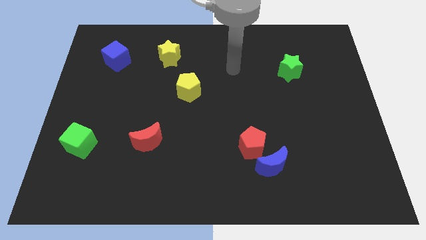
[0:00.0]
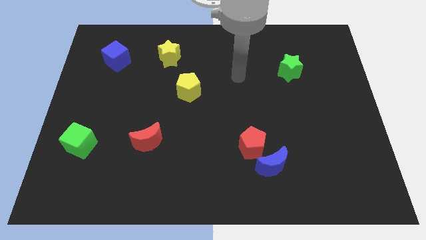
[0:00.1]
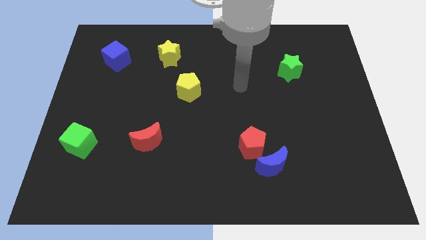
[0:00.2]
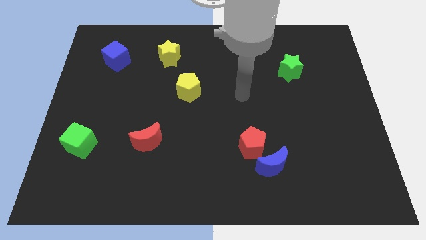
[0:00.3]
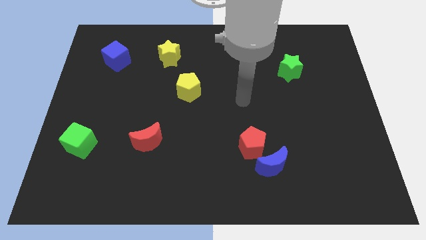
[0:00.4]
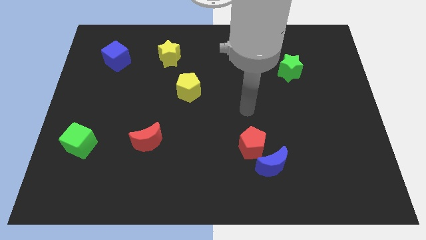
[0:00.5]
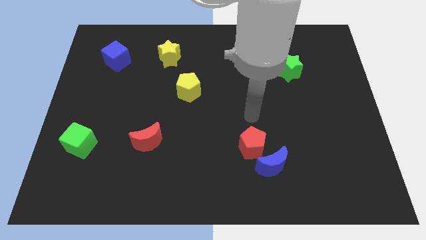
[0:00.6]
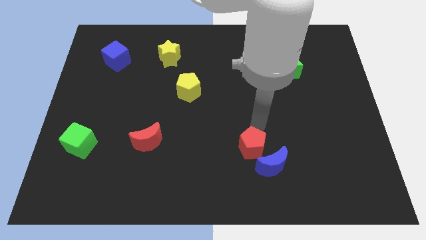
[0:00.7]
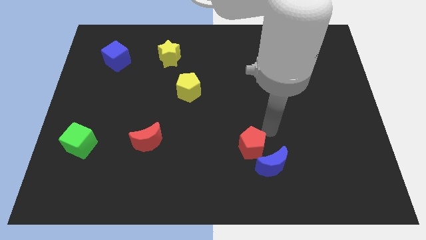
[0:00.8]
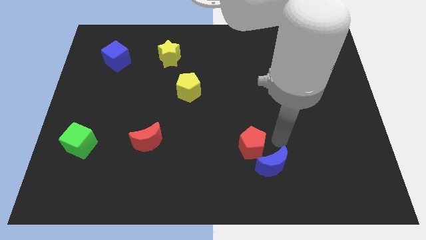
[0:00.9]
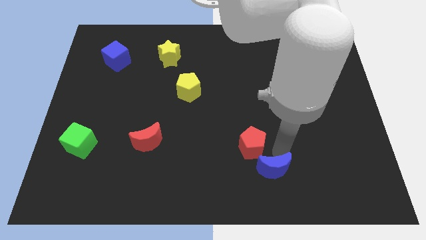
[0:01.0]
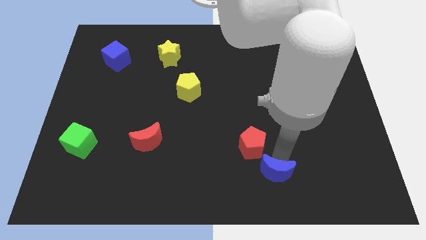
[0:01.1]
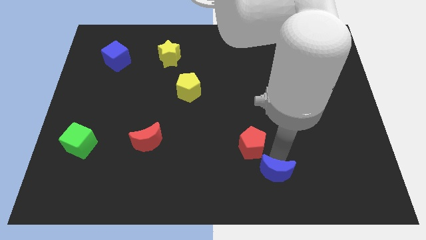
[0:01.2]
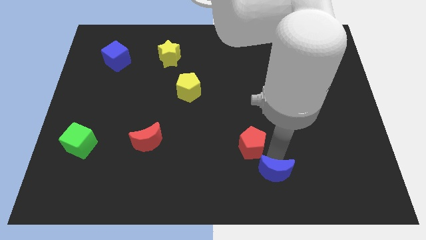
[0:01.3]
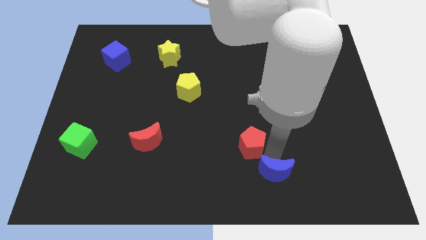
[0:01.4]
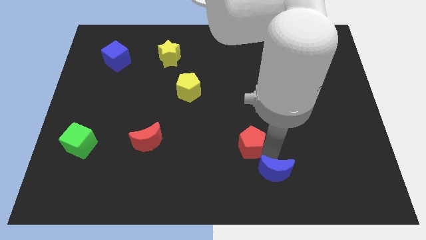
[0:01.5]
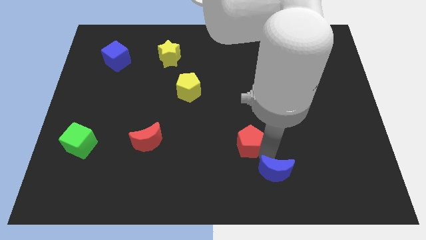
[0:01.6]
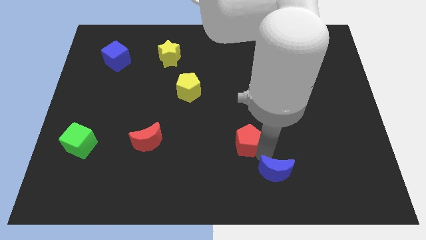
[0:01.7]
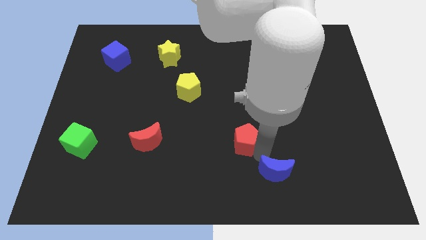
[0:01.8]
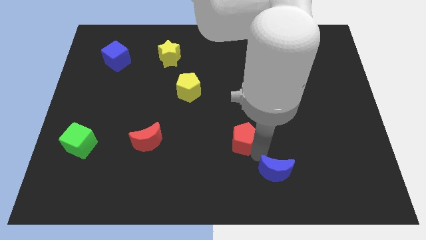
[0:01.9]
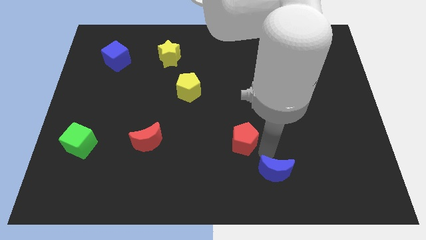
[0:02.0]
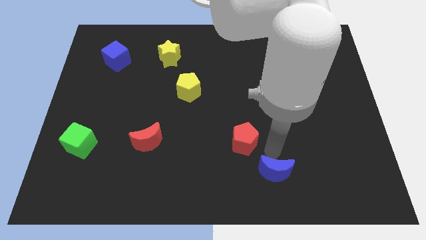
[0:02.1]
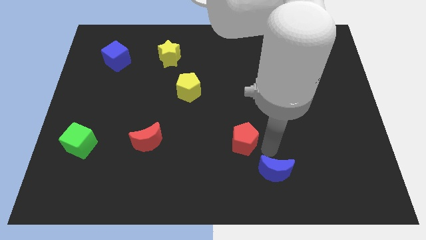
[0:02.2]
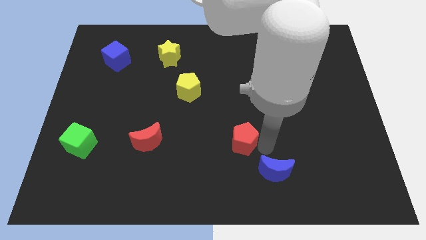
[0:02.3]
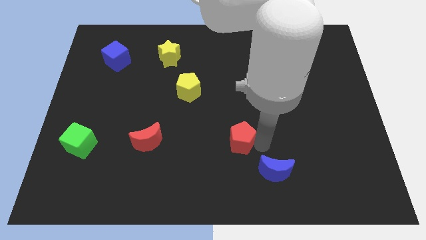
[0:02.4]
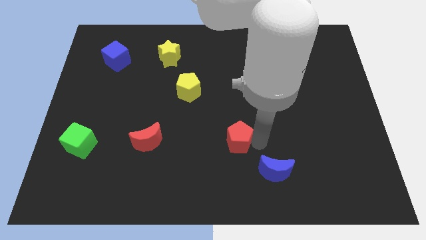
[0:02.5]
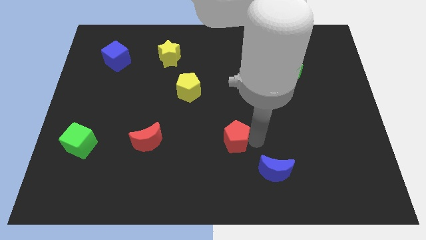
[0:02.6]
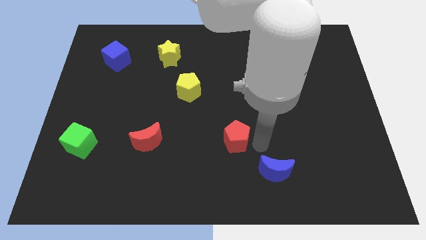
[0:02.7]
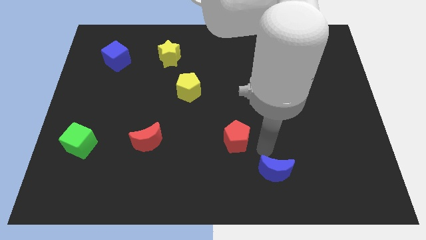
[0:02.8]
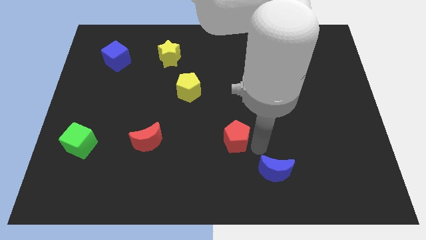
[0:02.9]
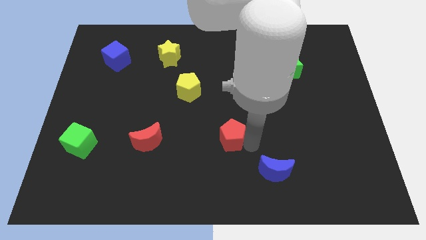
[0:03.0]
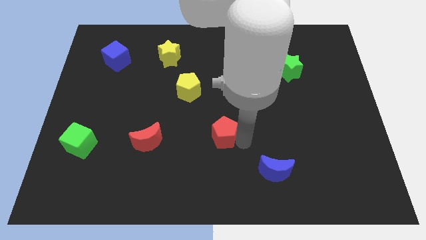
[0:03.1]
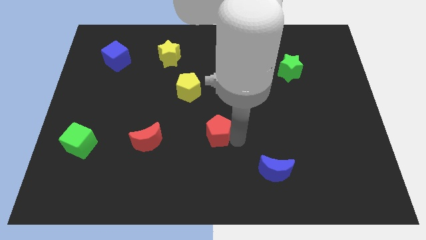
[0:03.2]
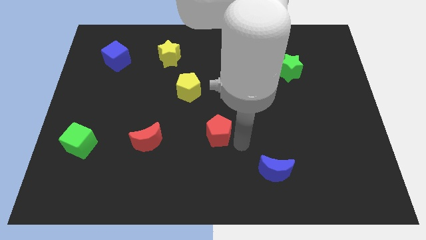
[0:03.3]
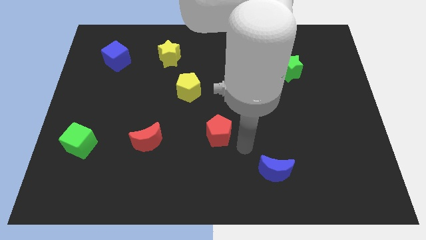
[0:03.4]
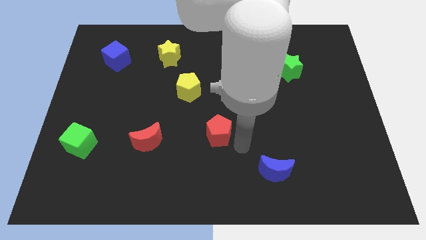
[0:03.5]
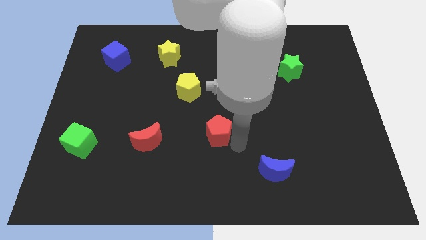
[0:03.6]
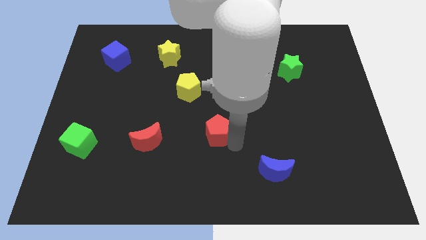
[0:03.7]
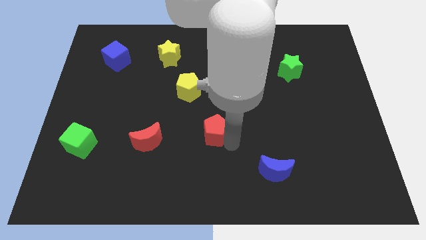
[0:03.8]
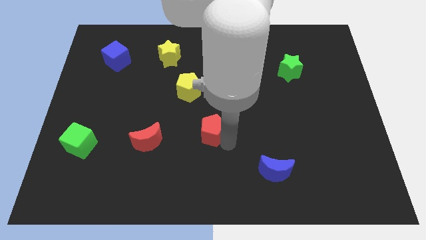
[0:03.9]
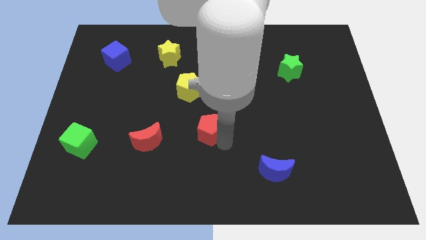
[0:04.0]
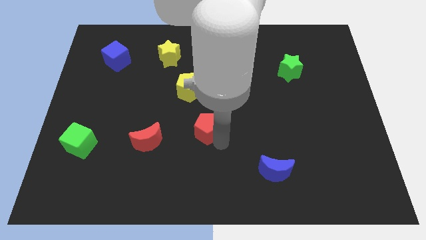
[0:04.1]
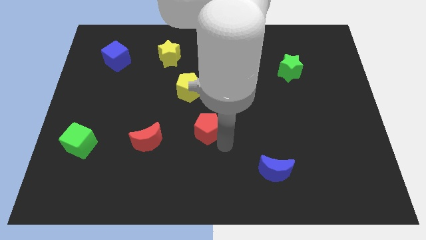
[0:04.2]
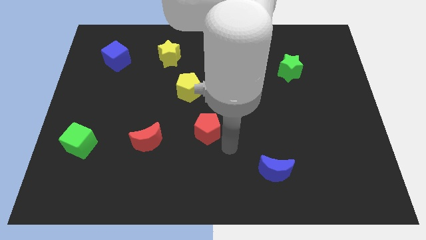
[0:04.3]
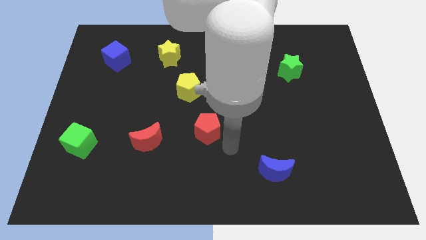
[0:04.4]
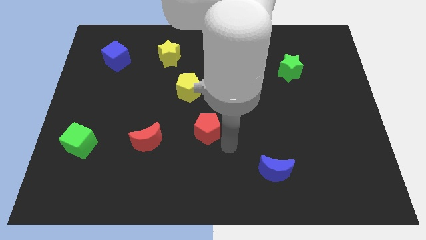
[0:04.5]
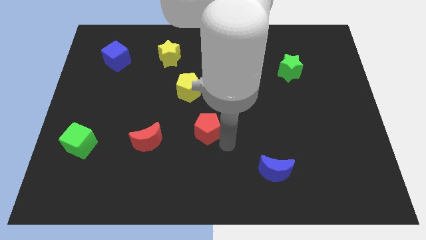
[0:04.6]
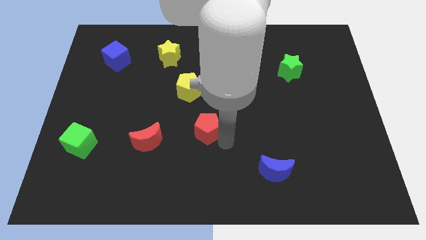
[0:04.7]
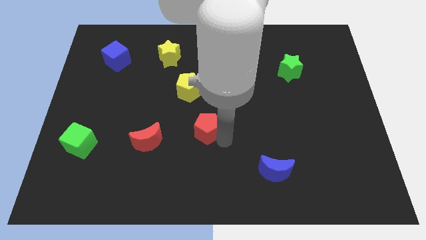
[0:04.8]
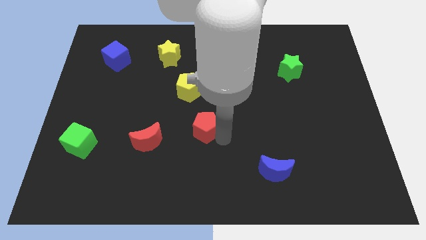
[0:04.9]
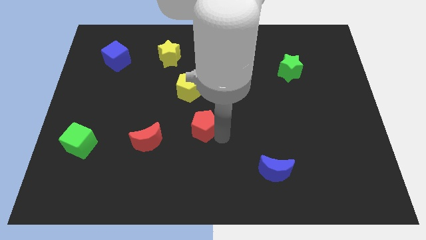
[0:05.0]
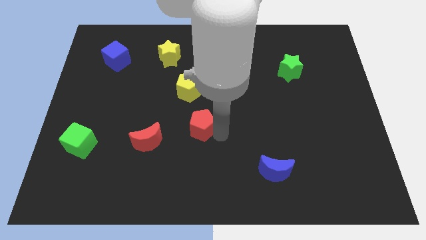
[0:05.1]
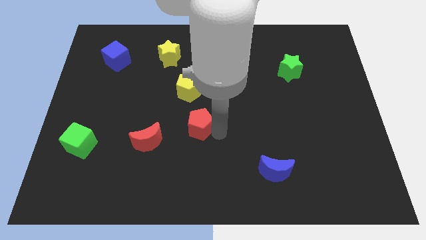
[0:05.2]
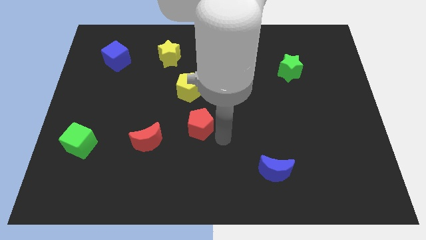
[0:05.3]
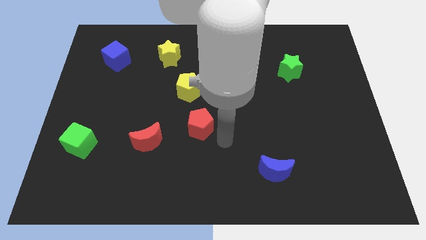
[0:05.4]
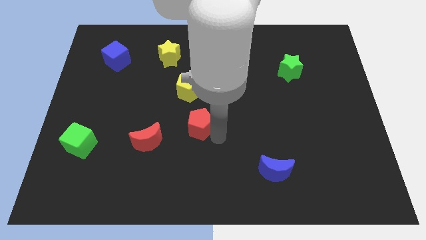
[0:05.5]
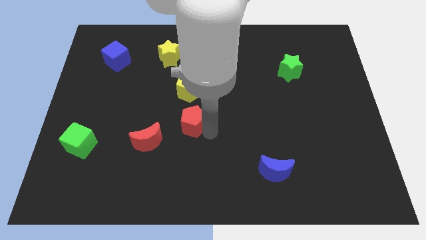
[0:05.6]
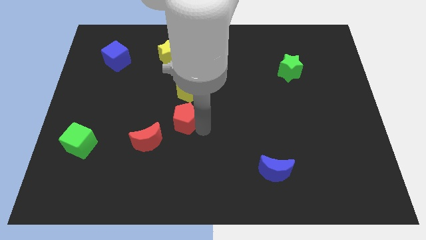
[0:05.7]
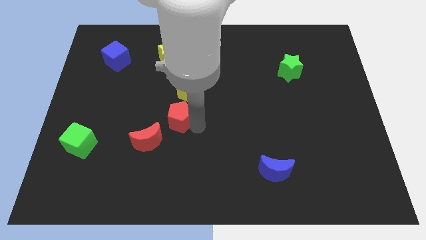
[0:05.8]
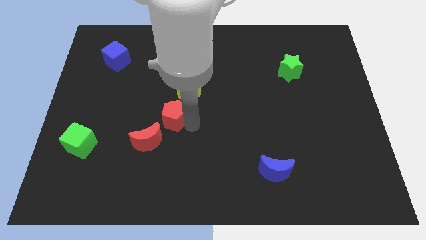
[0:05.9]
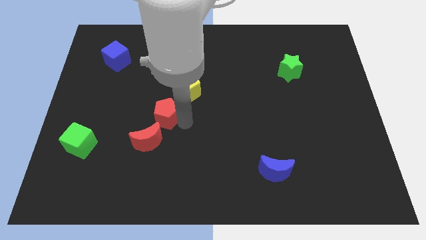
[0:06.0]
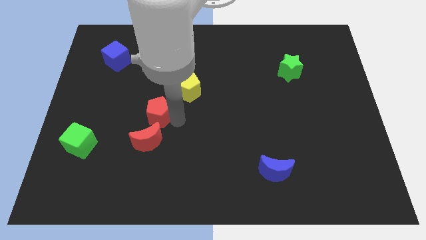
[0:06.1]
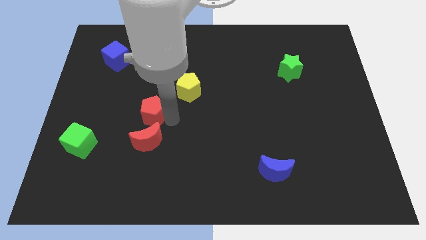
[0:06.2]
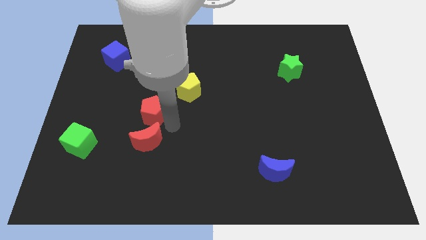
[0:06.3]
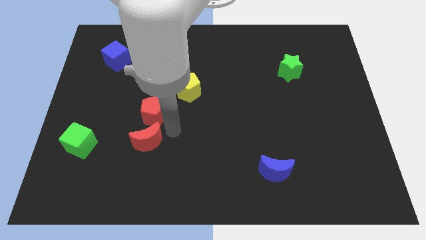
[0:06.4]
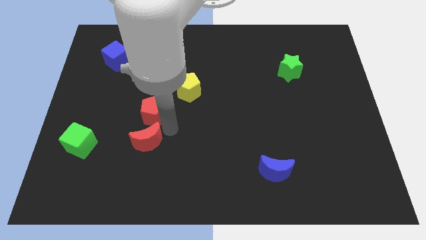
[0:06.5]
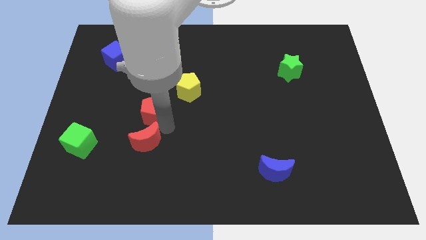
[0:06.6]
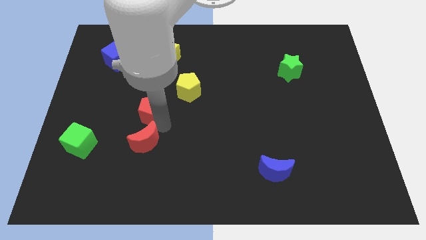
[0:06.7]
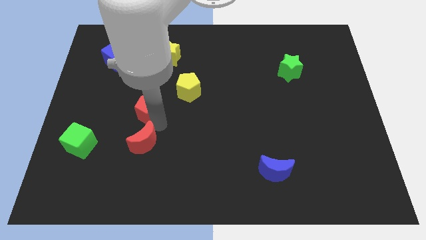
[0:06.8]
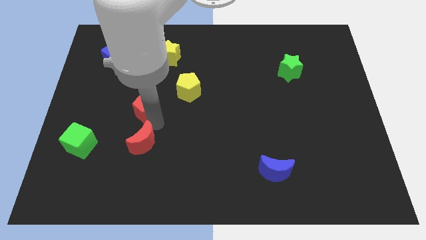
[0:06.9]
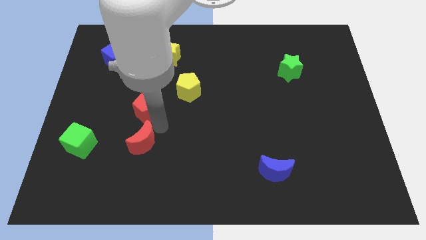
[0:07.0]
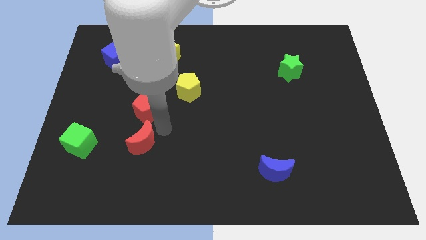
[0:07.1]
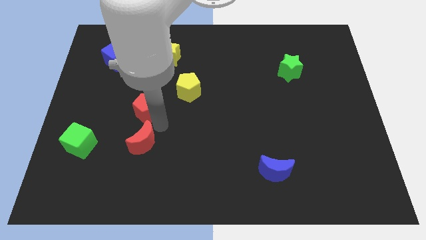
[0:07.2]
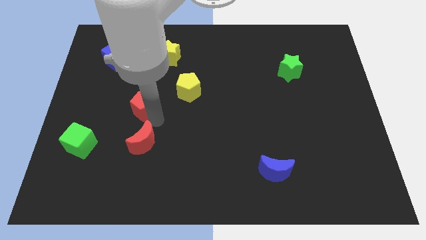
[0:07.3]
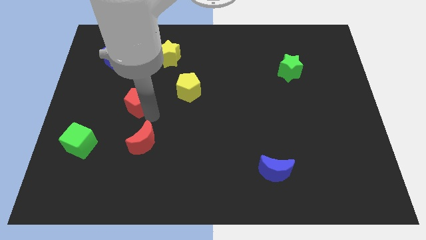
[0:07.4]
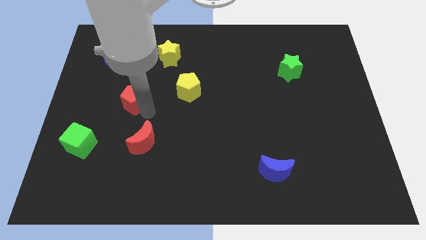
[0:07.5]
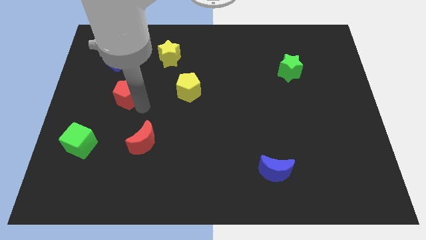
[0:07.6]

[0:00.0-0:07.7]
push the red pentagon below the blue cube
